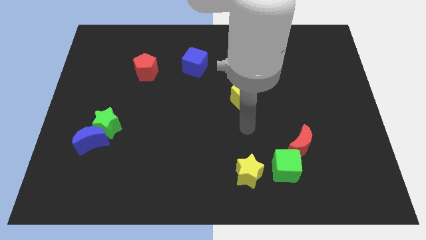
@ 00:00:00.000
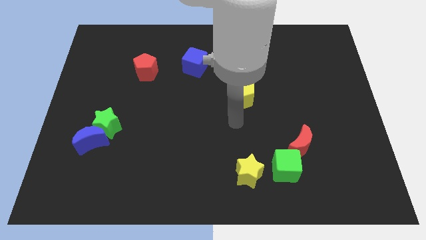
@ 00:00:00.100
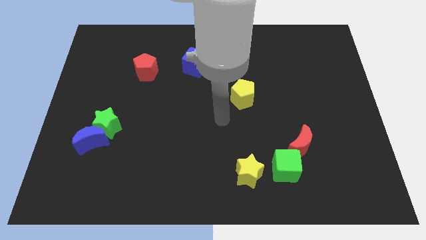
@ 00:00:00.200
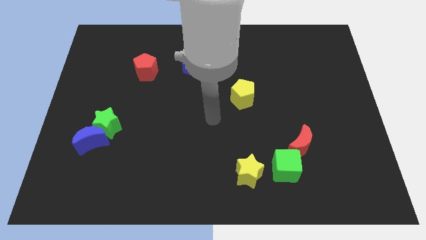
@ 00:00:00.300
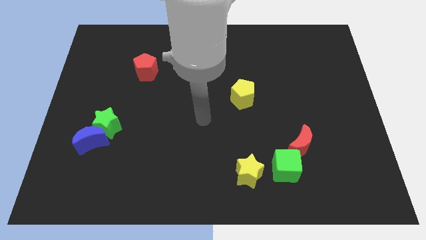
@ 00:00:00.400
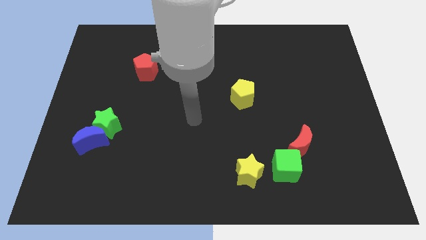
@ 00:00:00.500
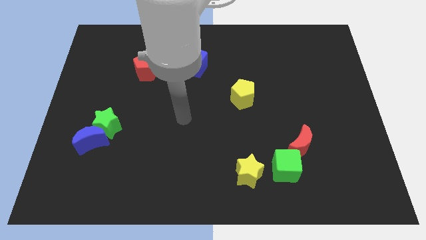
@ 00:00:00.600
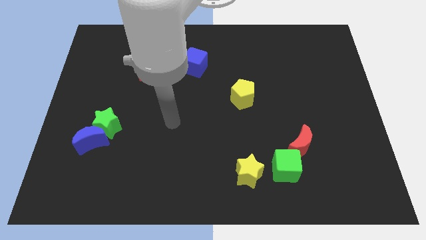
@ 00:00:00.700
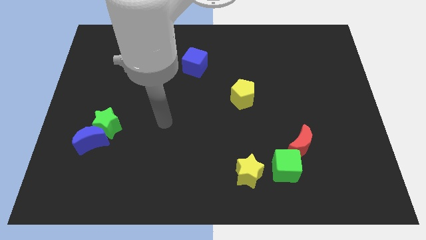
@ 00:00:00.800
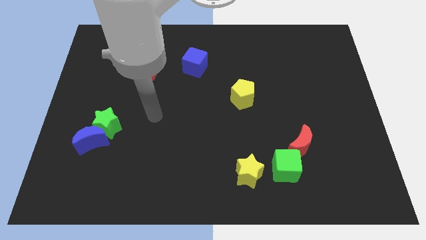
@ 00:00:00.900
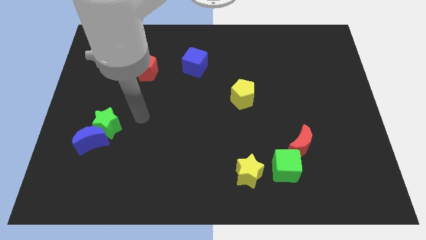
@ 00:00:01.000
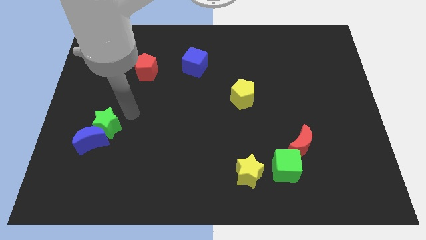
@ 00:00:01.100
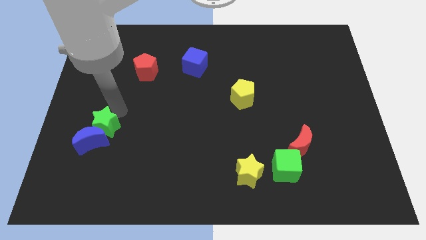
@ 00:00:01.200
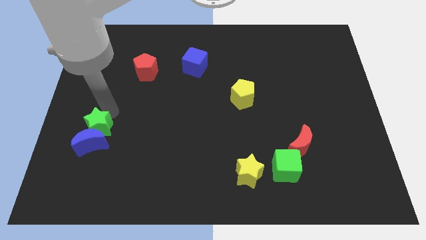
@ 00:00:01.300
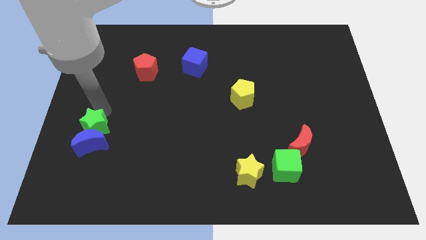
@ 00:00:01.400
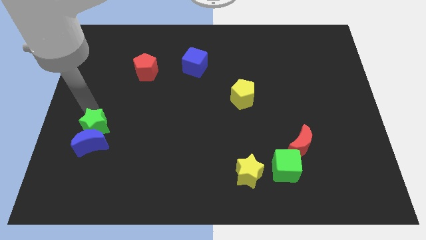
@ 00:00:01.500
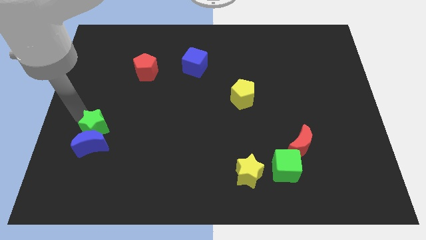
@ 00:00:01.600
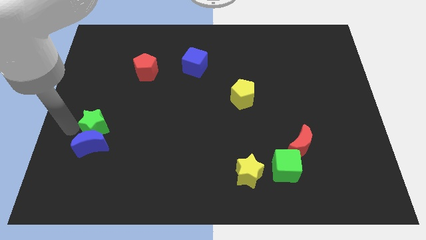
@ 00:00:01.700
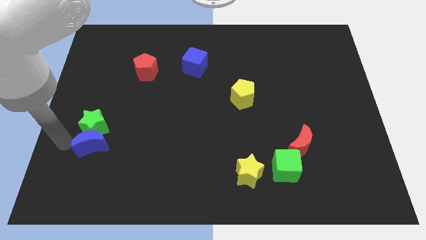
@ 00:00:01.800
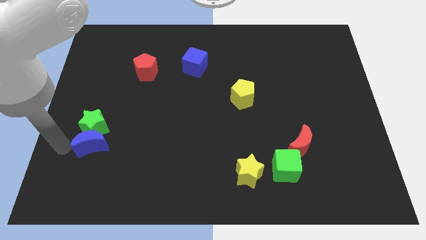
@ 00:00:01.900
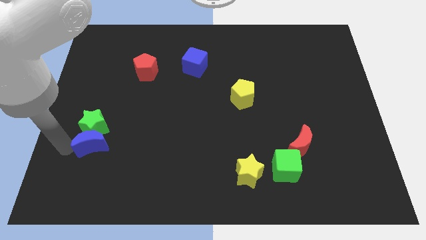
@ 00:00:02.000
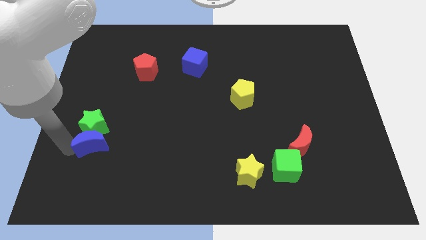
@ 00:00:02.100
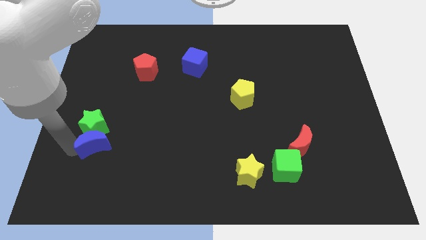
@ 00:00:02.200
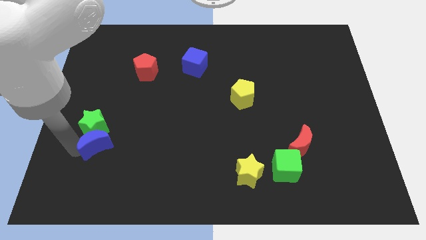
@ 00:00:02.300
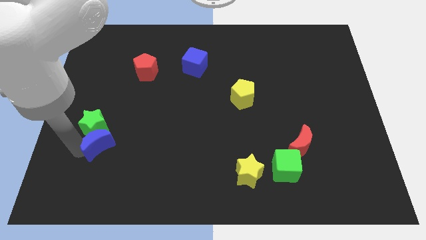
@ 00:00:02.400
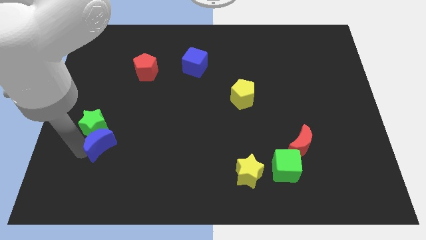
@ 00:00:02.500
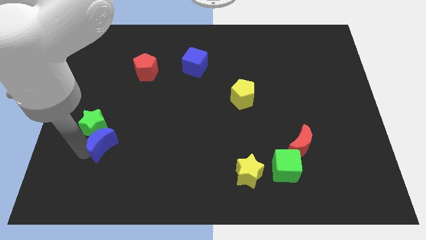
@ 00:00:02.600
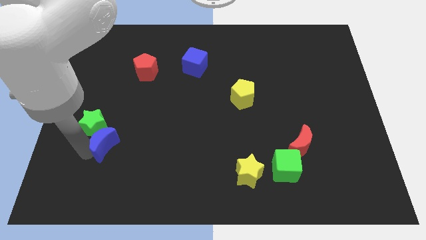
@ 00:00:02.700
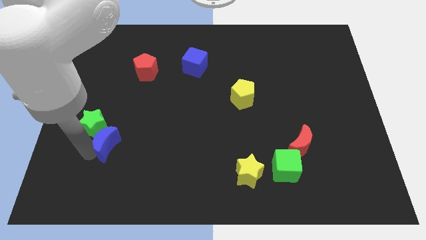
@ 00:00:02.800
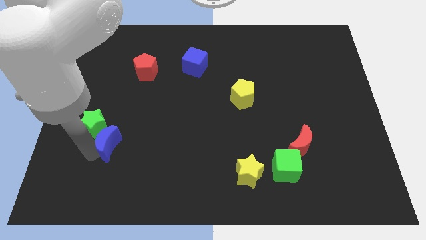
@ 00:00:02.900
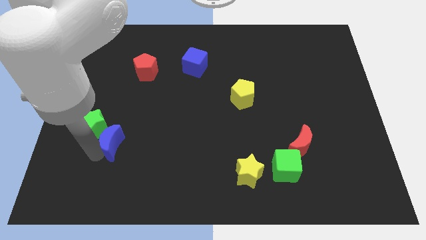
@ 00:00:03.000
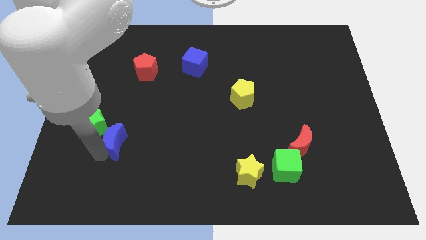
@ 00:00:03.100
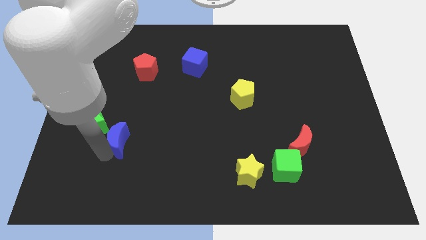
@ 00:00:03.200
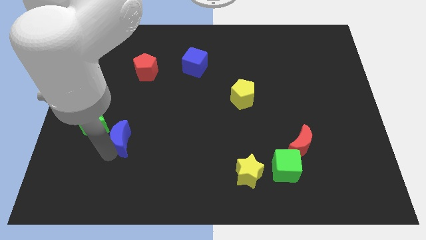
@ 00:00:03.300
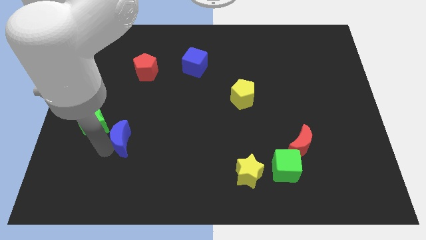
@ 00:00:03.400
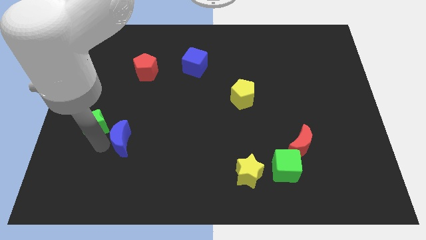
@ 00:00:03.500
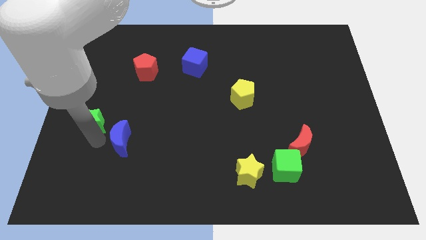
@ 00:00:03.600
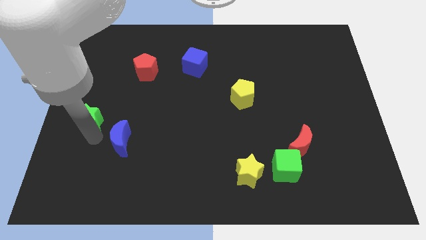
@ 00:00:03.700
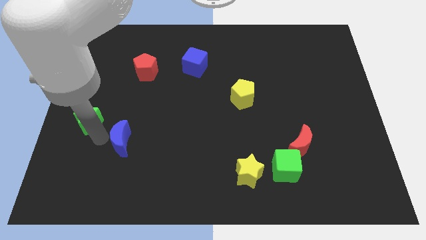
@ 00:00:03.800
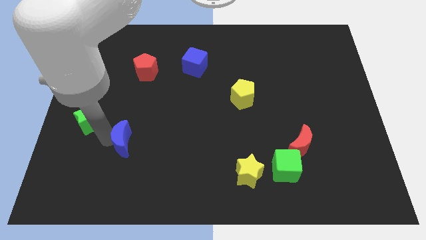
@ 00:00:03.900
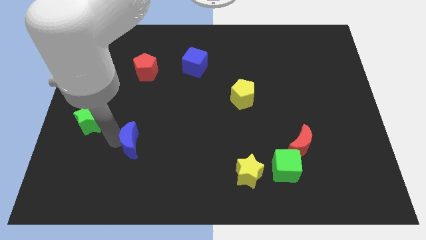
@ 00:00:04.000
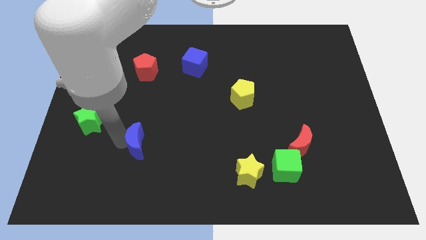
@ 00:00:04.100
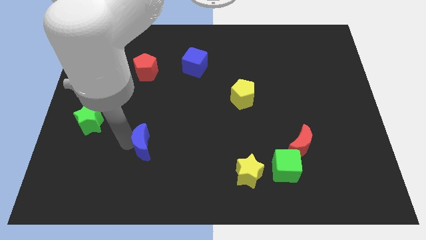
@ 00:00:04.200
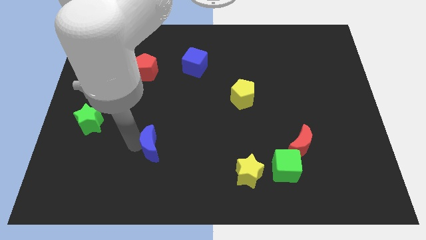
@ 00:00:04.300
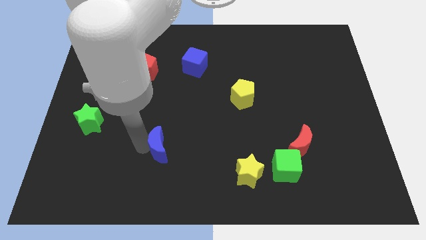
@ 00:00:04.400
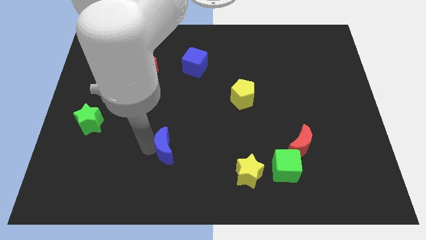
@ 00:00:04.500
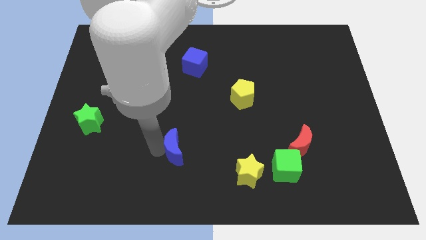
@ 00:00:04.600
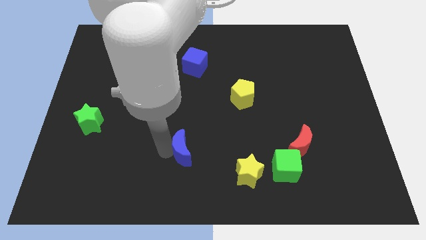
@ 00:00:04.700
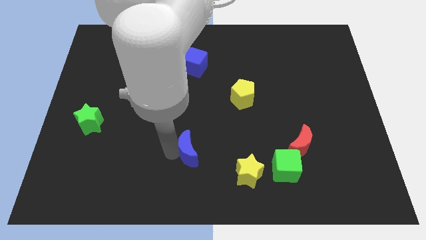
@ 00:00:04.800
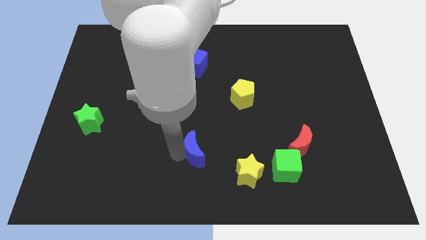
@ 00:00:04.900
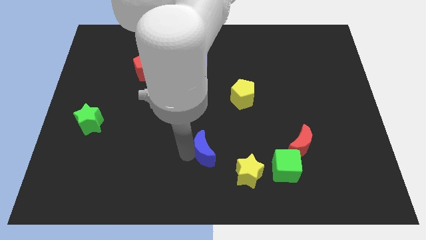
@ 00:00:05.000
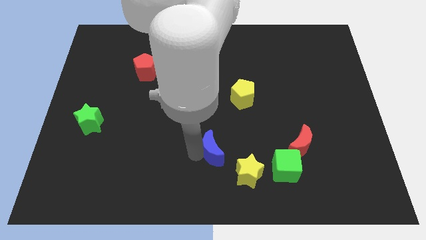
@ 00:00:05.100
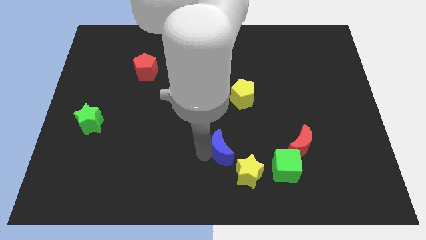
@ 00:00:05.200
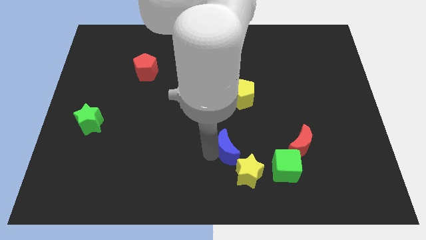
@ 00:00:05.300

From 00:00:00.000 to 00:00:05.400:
push the blue moon left of the red moon

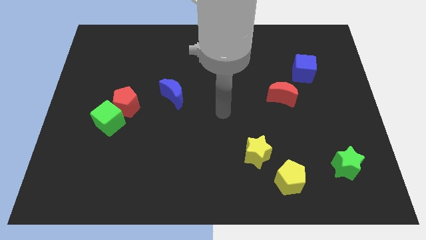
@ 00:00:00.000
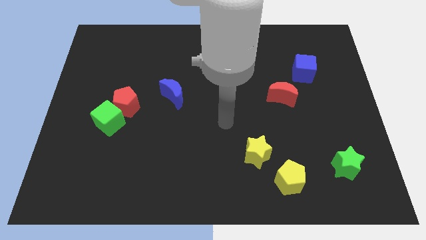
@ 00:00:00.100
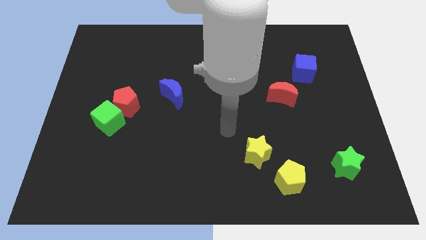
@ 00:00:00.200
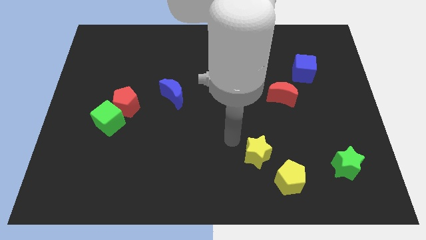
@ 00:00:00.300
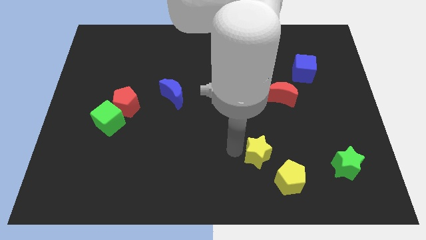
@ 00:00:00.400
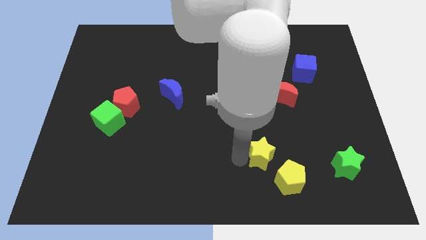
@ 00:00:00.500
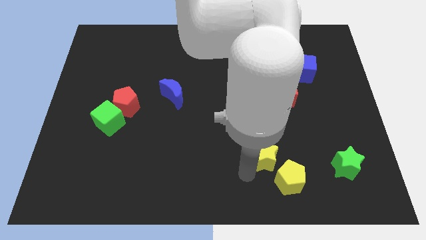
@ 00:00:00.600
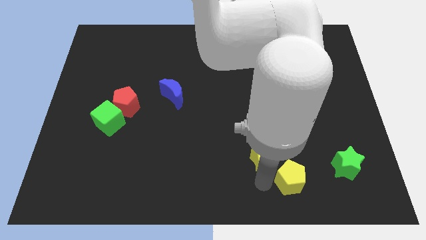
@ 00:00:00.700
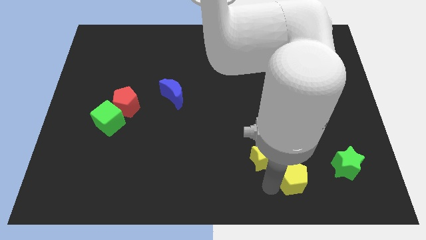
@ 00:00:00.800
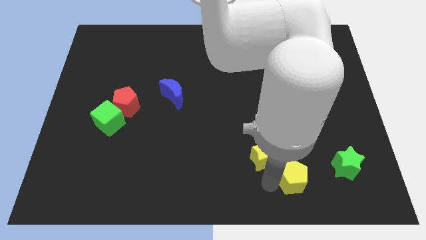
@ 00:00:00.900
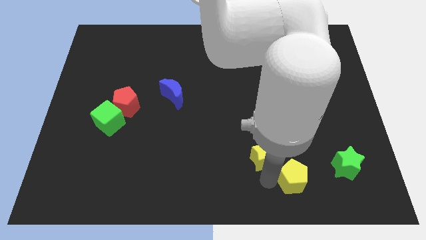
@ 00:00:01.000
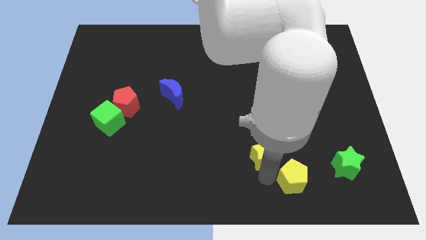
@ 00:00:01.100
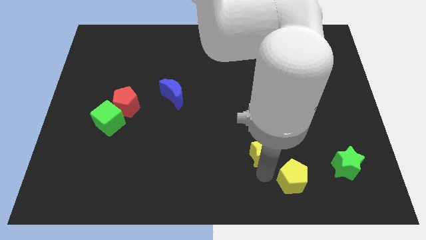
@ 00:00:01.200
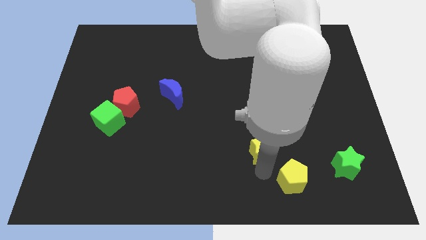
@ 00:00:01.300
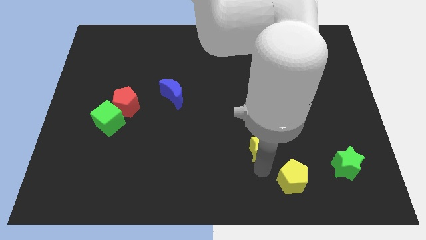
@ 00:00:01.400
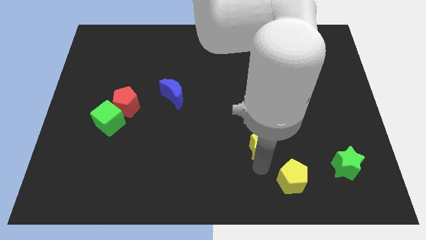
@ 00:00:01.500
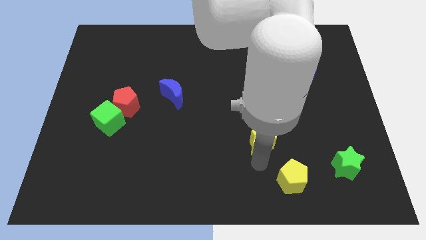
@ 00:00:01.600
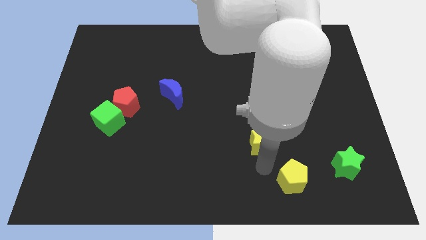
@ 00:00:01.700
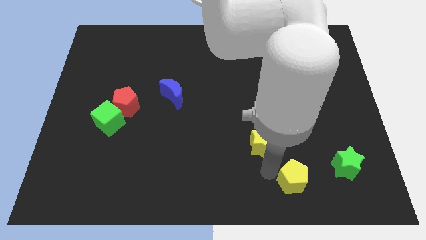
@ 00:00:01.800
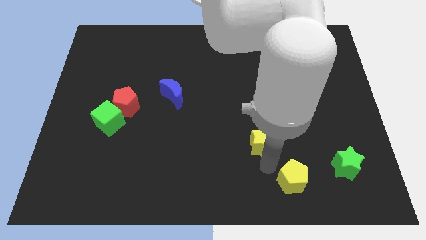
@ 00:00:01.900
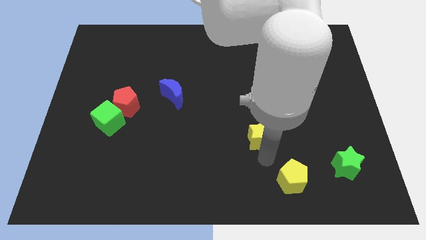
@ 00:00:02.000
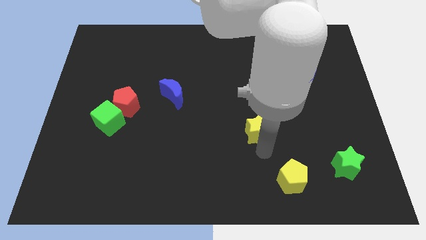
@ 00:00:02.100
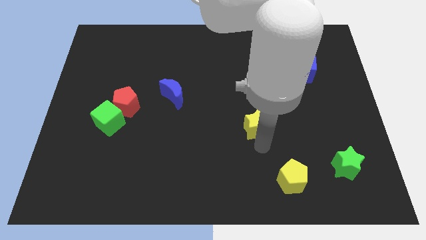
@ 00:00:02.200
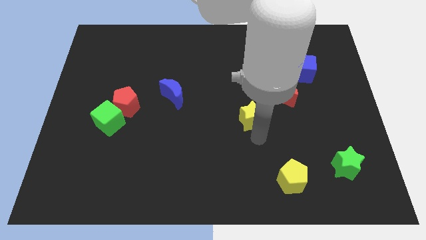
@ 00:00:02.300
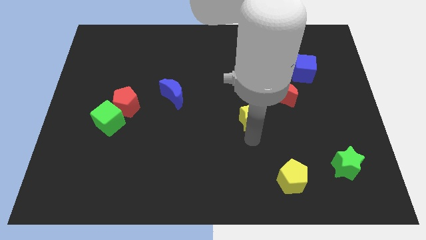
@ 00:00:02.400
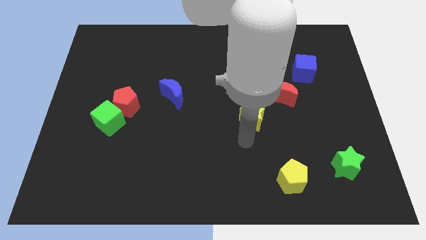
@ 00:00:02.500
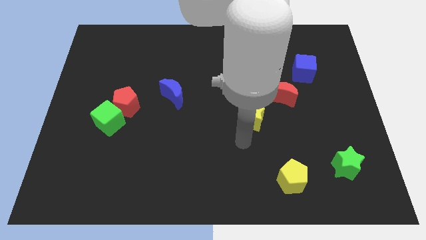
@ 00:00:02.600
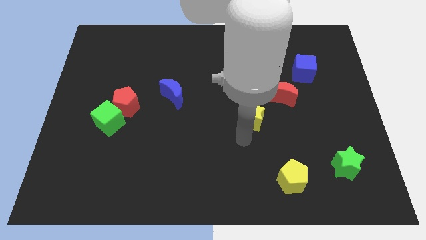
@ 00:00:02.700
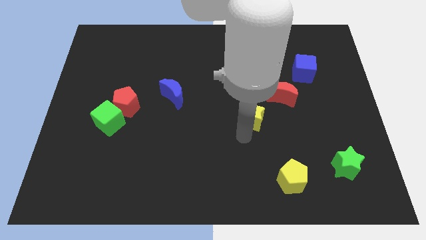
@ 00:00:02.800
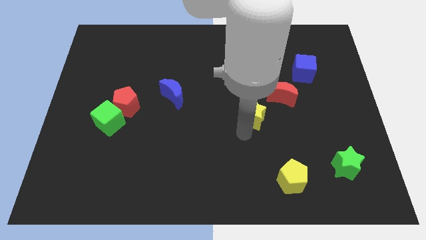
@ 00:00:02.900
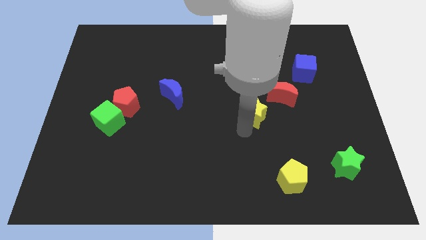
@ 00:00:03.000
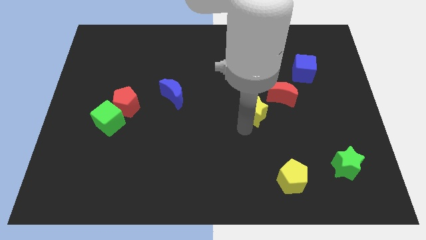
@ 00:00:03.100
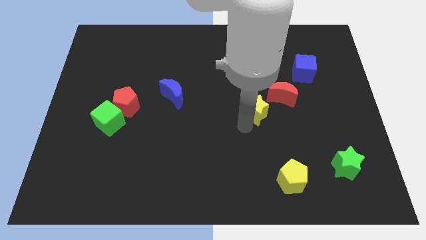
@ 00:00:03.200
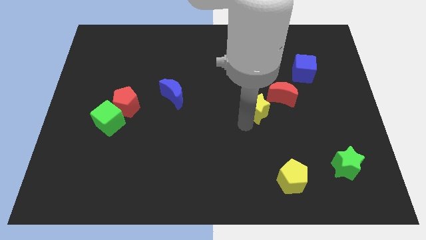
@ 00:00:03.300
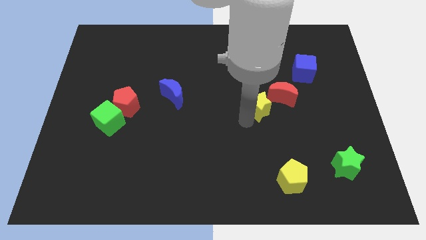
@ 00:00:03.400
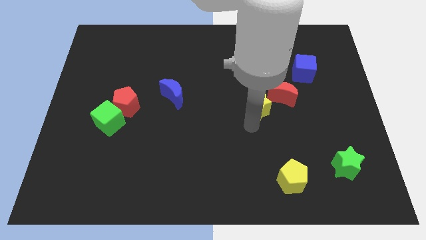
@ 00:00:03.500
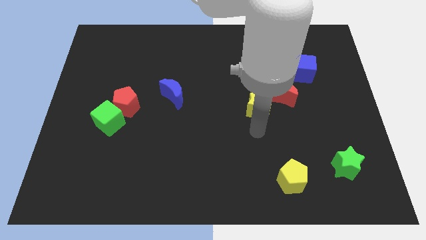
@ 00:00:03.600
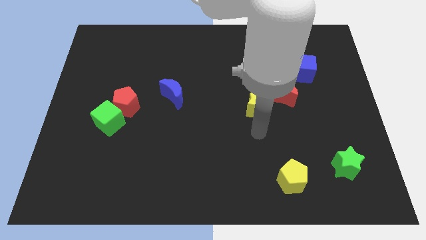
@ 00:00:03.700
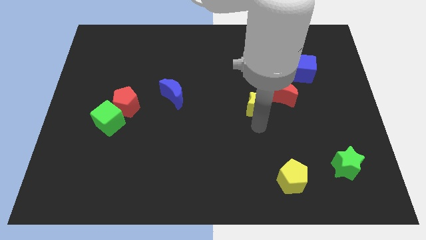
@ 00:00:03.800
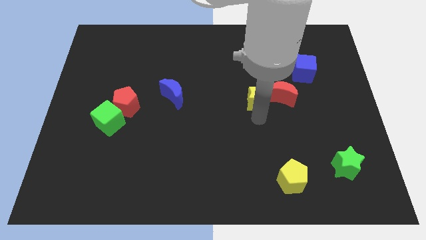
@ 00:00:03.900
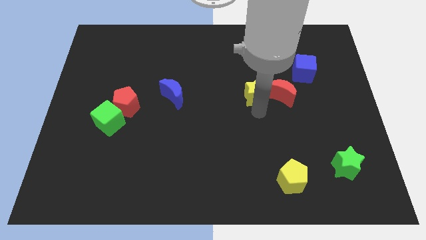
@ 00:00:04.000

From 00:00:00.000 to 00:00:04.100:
put the yellow star diagonally up and to the left of the red moon
